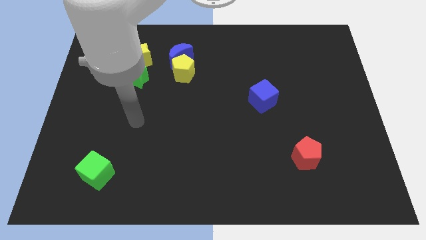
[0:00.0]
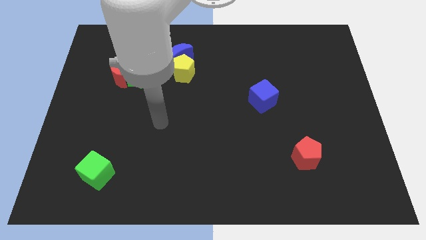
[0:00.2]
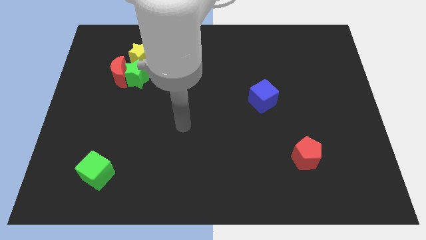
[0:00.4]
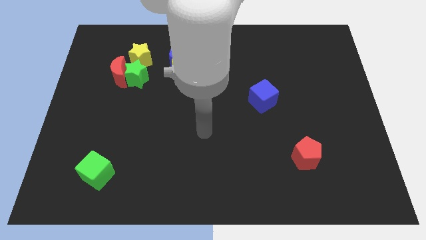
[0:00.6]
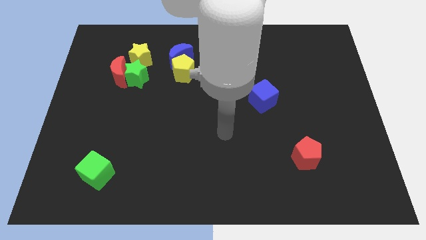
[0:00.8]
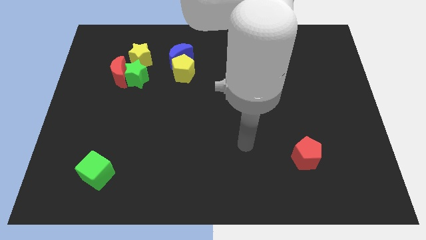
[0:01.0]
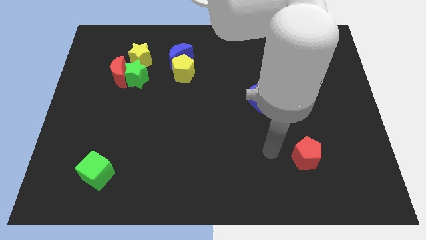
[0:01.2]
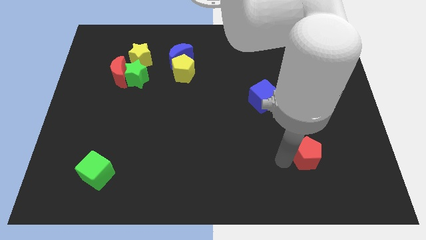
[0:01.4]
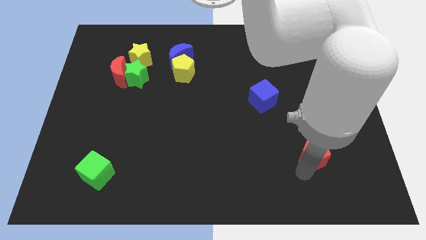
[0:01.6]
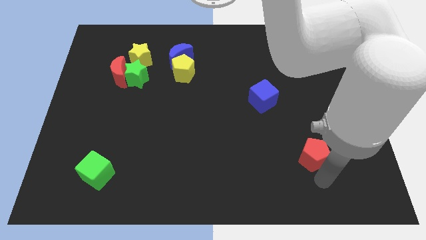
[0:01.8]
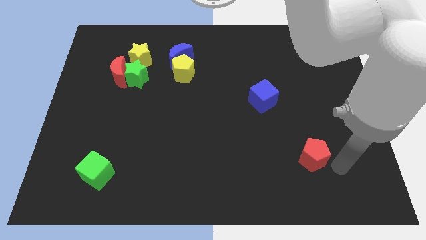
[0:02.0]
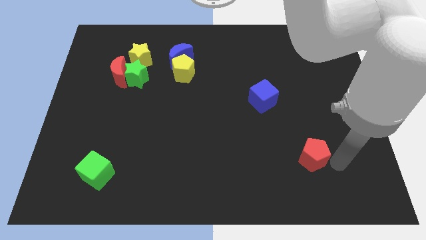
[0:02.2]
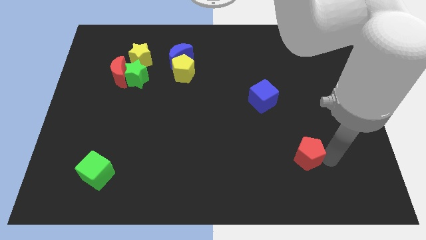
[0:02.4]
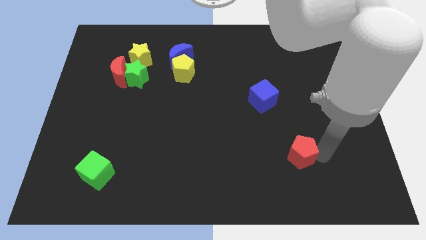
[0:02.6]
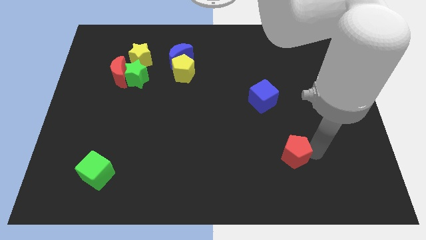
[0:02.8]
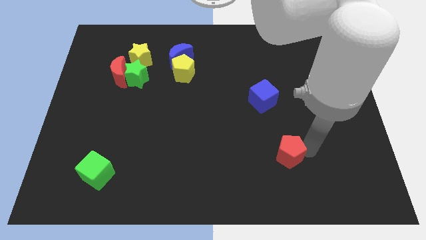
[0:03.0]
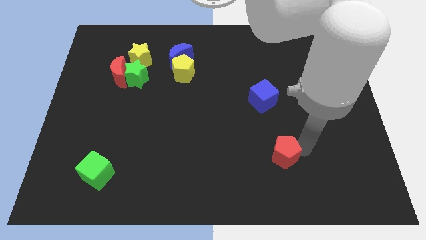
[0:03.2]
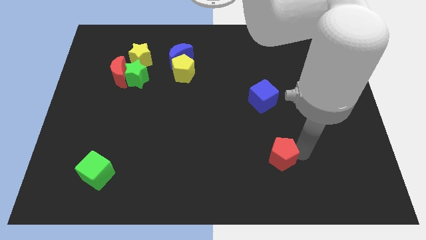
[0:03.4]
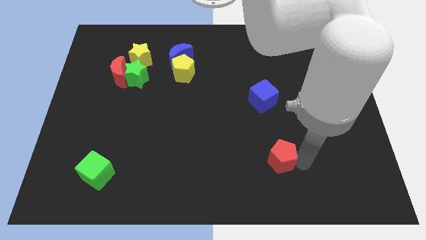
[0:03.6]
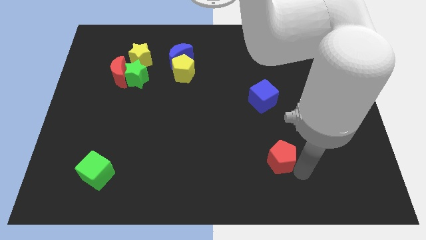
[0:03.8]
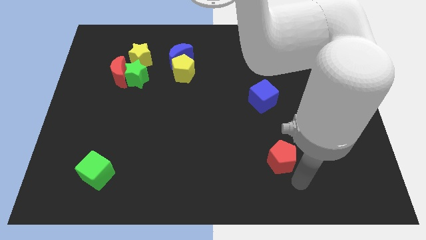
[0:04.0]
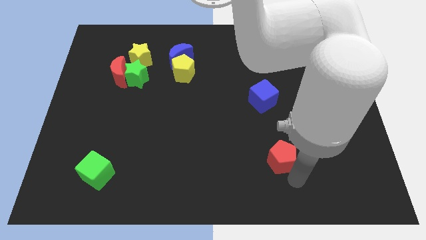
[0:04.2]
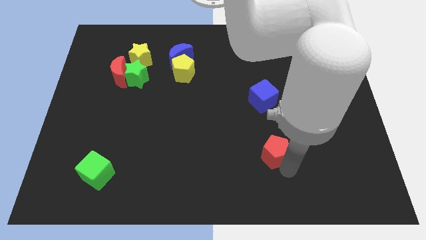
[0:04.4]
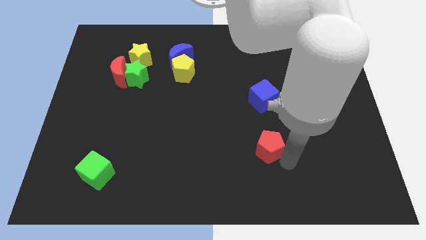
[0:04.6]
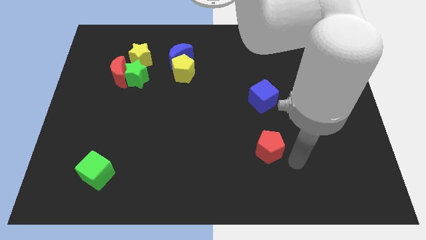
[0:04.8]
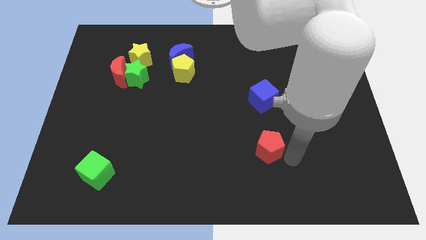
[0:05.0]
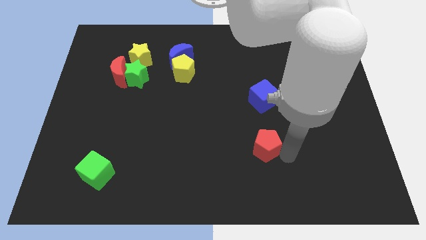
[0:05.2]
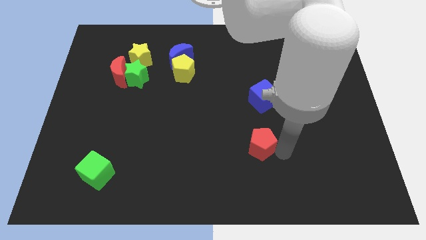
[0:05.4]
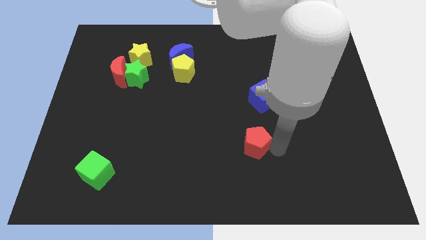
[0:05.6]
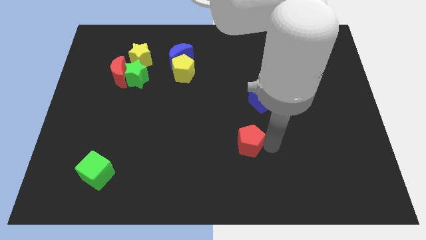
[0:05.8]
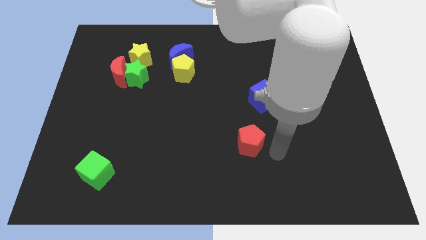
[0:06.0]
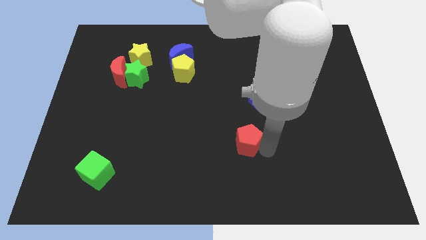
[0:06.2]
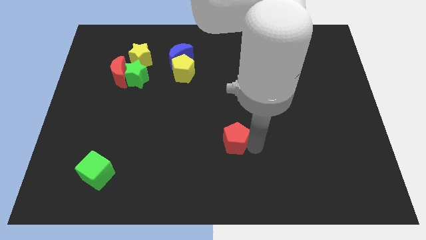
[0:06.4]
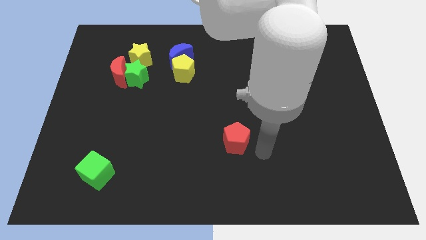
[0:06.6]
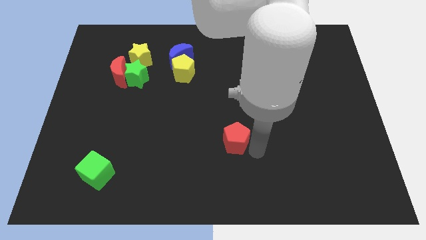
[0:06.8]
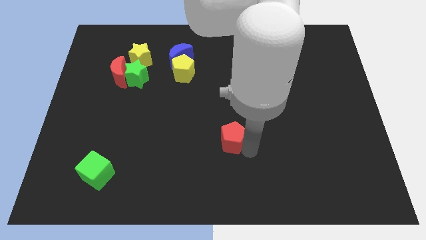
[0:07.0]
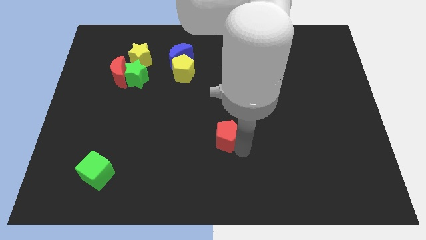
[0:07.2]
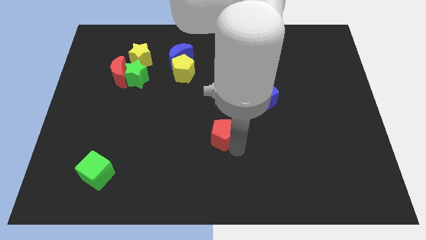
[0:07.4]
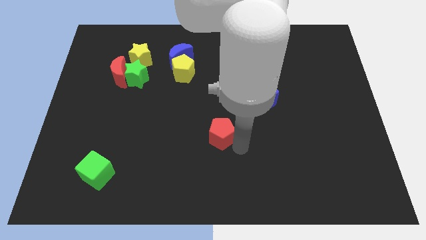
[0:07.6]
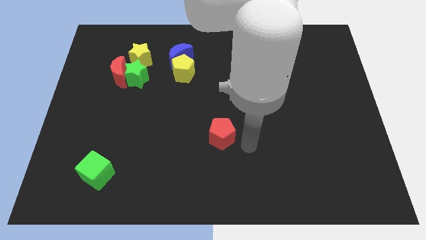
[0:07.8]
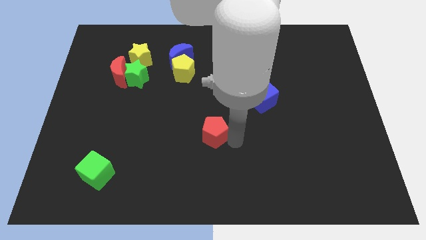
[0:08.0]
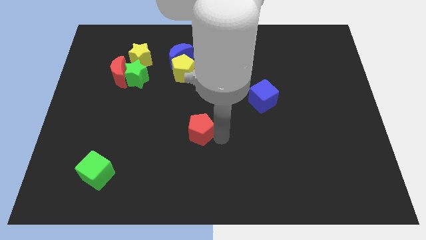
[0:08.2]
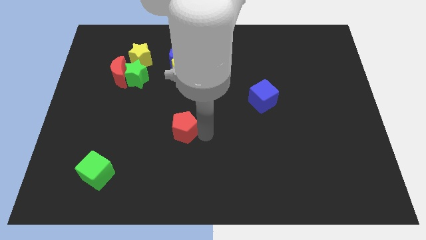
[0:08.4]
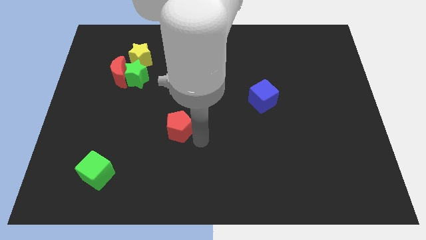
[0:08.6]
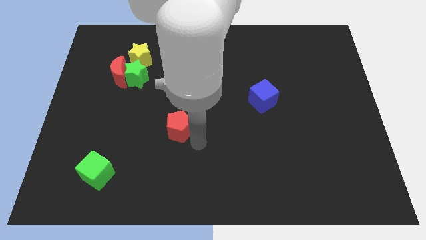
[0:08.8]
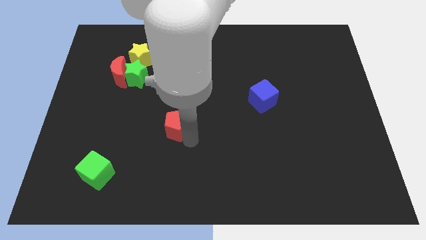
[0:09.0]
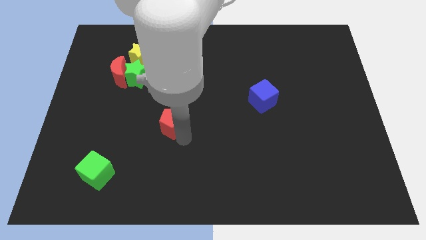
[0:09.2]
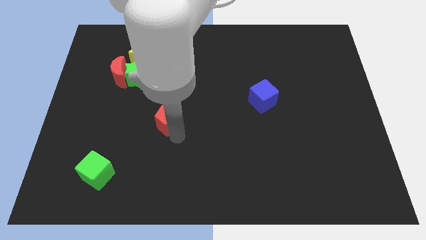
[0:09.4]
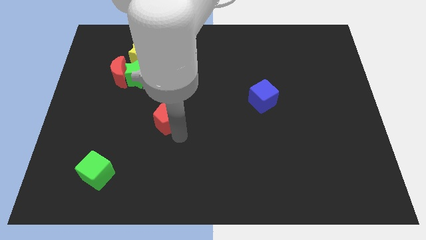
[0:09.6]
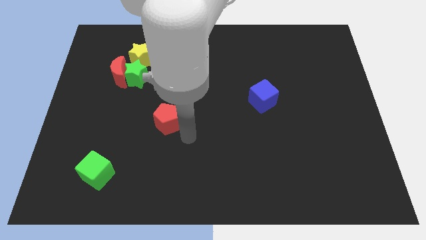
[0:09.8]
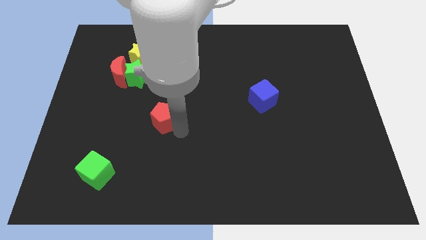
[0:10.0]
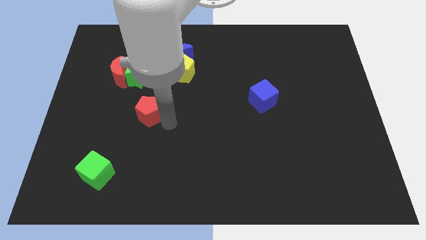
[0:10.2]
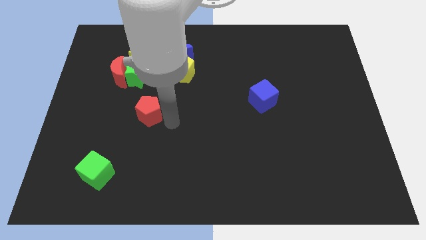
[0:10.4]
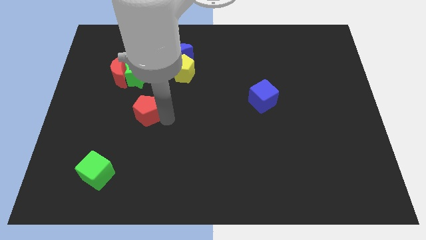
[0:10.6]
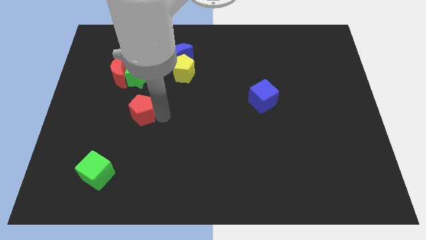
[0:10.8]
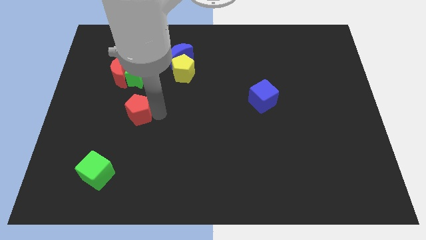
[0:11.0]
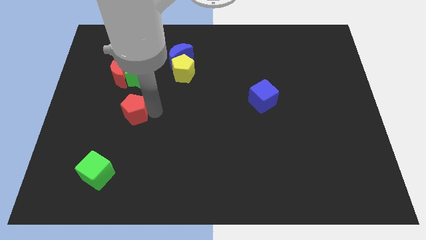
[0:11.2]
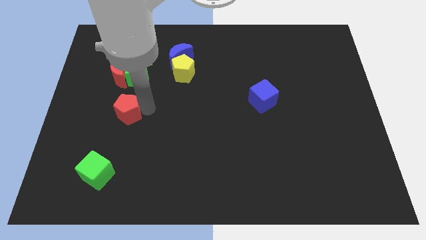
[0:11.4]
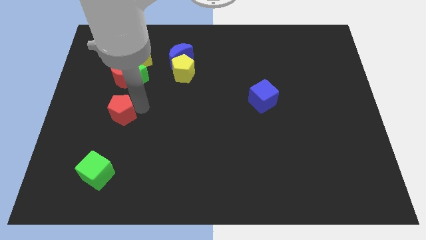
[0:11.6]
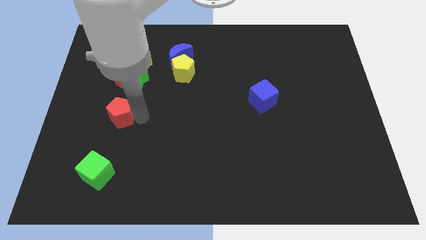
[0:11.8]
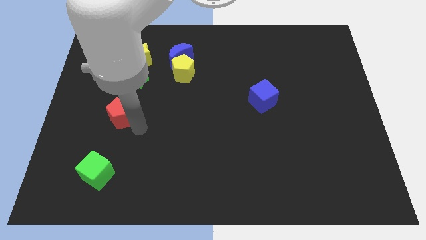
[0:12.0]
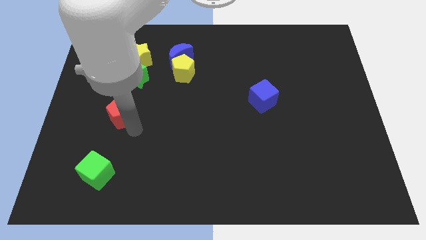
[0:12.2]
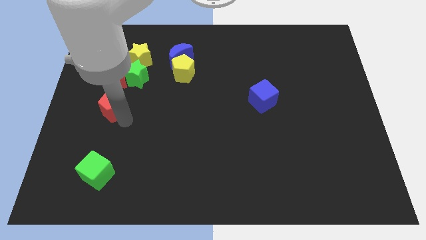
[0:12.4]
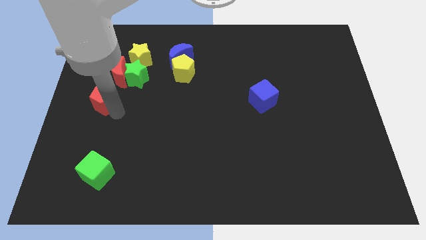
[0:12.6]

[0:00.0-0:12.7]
slide the red pentagon to the bottom left side of the red moon

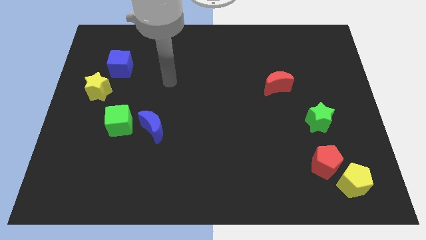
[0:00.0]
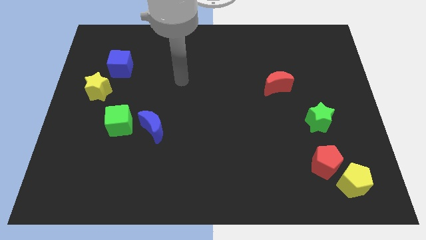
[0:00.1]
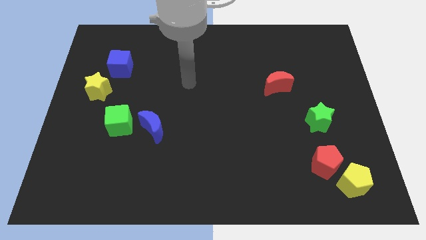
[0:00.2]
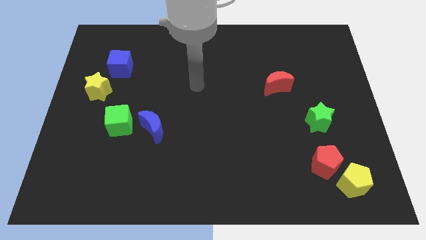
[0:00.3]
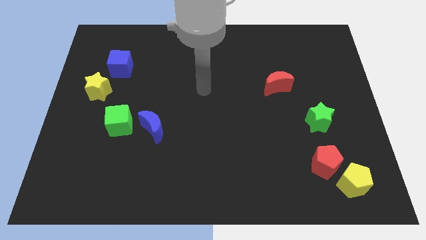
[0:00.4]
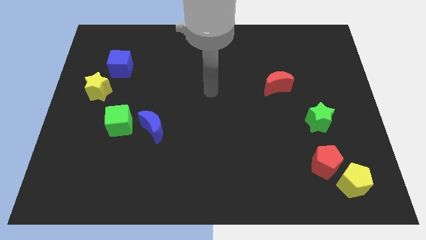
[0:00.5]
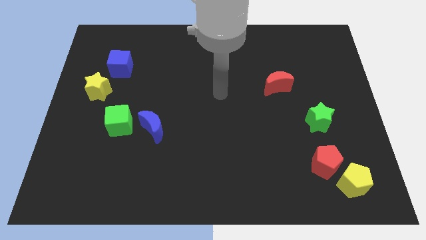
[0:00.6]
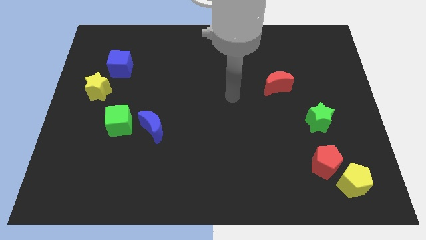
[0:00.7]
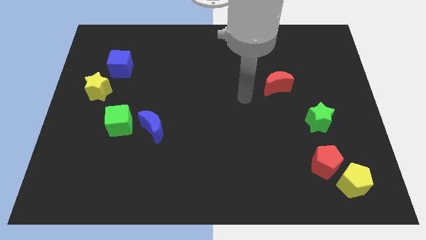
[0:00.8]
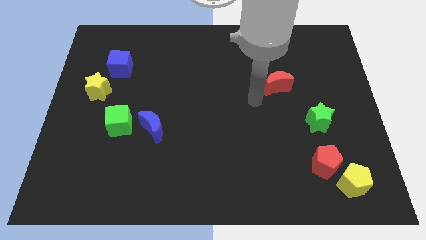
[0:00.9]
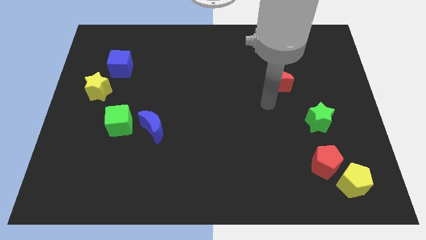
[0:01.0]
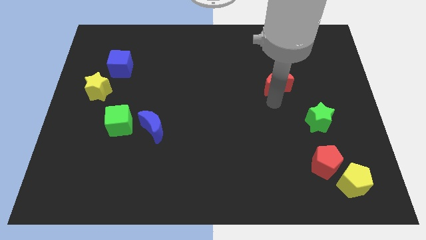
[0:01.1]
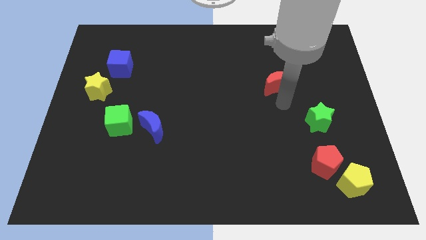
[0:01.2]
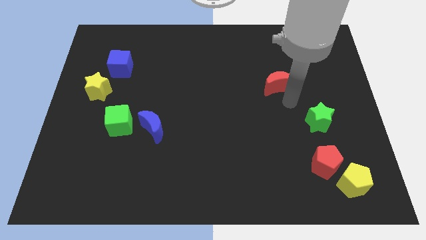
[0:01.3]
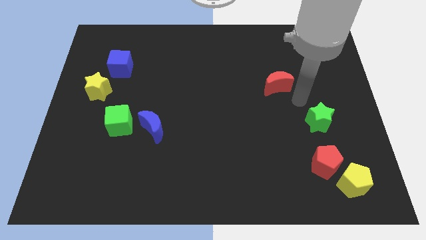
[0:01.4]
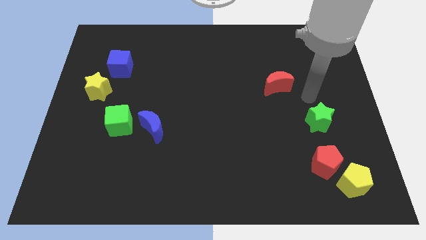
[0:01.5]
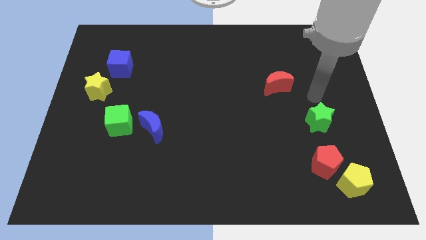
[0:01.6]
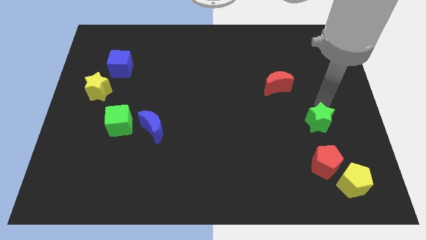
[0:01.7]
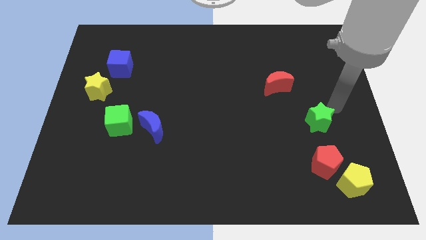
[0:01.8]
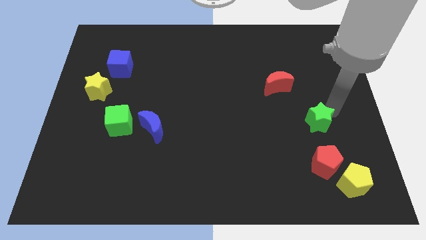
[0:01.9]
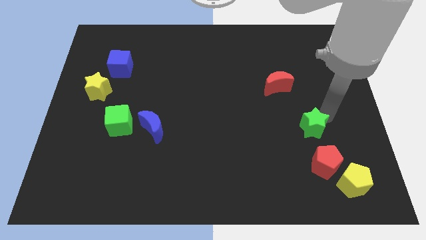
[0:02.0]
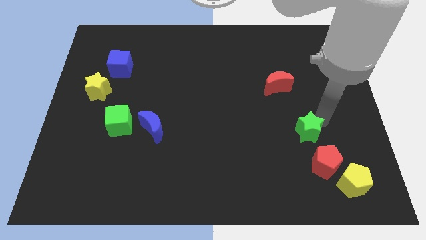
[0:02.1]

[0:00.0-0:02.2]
slide the green star to the top left side of the red pentagon
